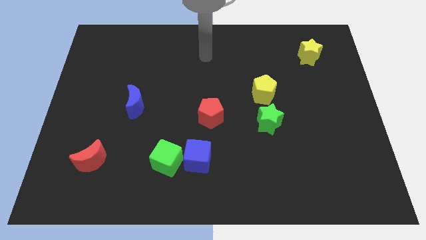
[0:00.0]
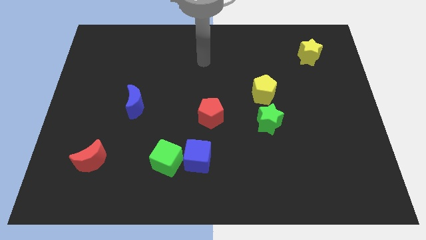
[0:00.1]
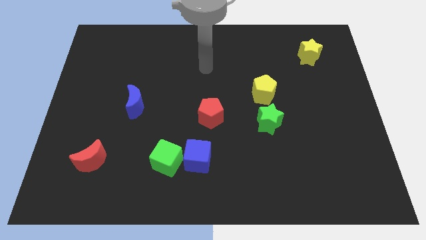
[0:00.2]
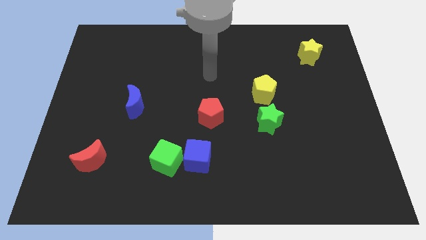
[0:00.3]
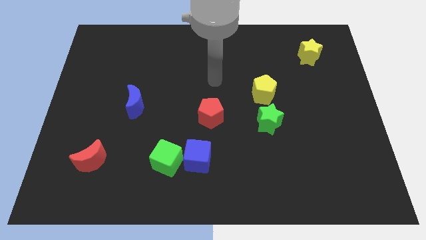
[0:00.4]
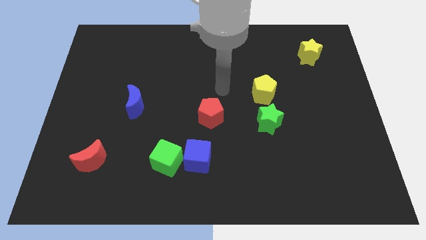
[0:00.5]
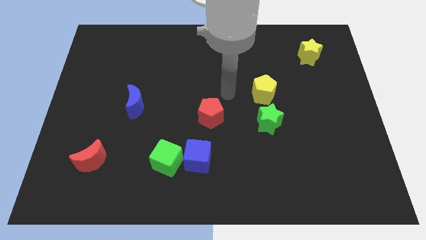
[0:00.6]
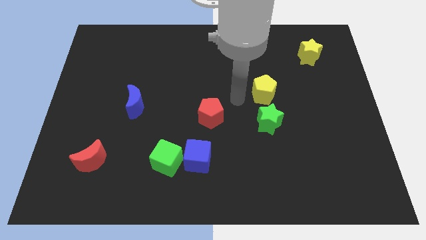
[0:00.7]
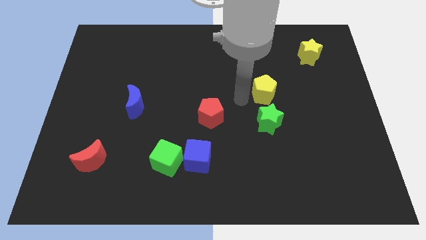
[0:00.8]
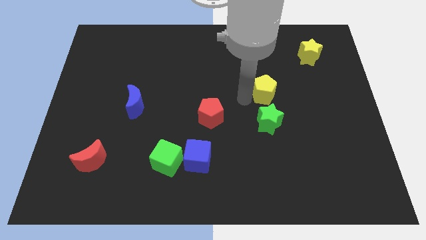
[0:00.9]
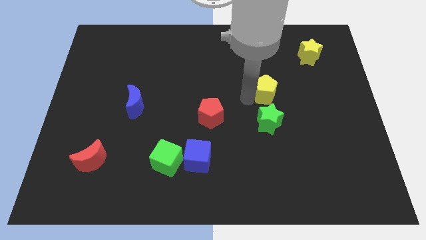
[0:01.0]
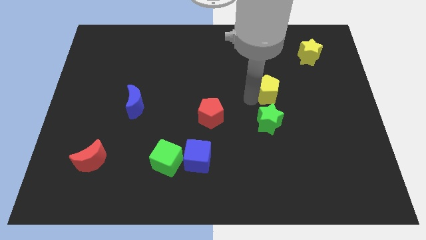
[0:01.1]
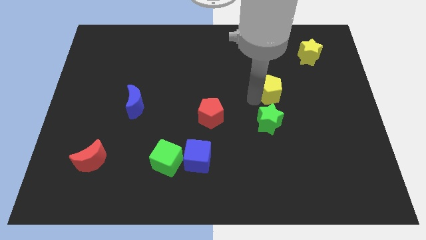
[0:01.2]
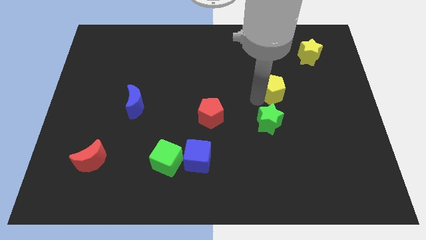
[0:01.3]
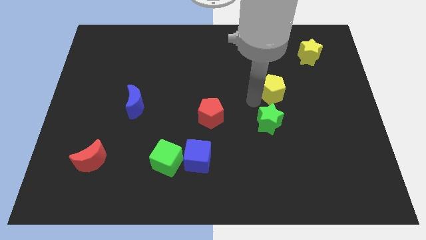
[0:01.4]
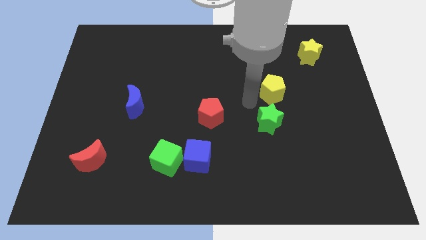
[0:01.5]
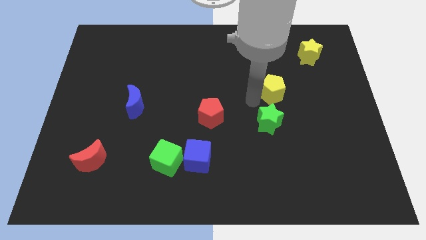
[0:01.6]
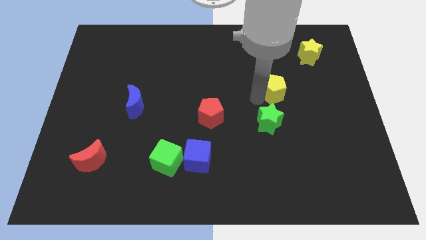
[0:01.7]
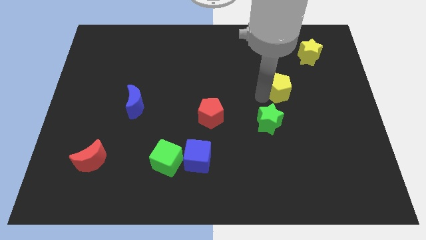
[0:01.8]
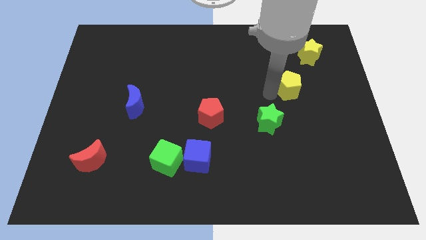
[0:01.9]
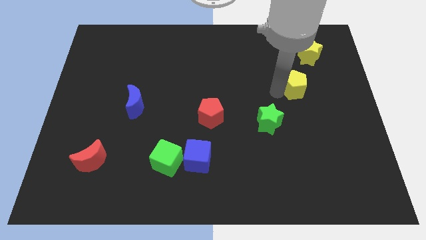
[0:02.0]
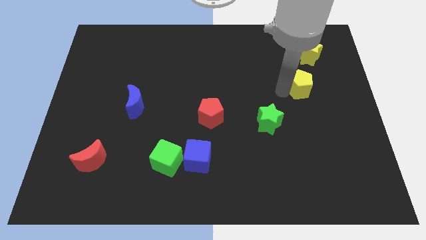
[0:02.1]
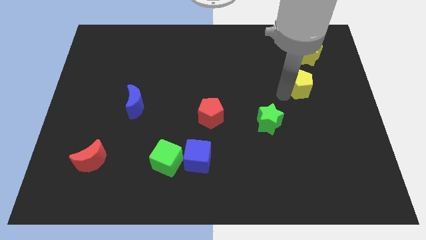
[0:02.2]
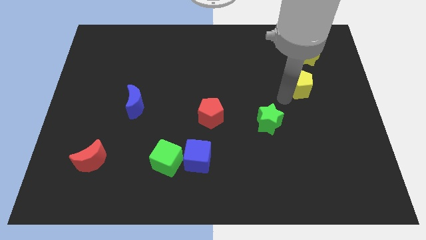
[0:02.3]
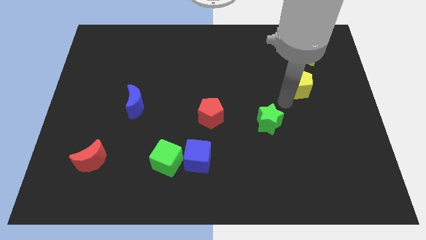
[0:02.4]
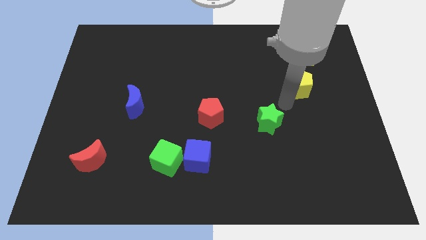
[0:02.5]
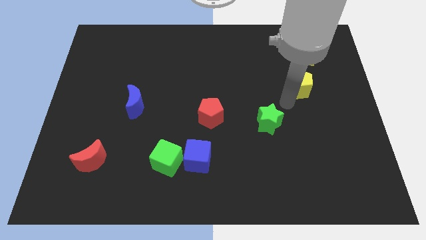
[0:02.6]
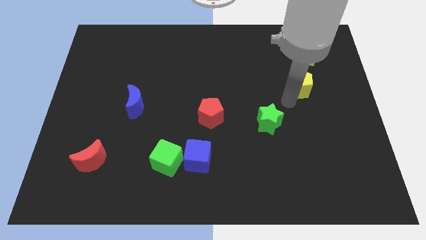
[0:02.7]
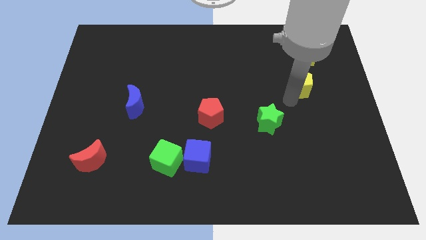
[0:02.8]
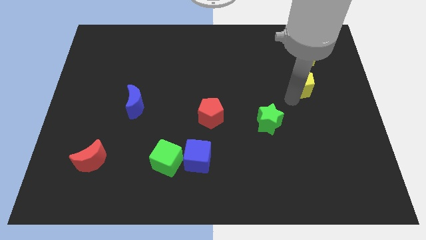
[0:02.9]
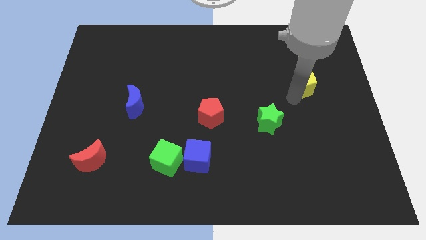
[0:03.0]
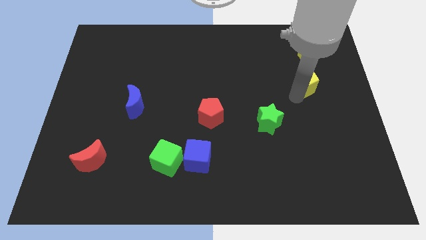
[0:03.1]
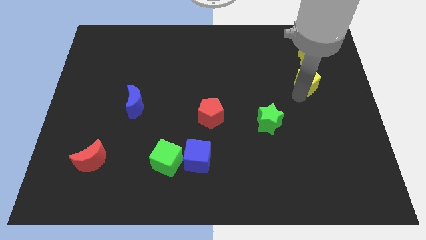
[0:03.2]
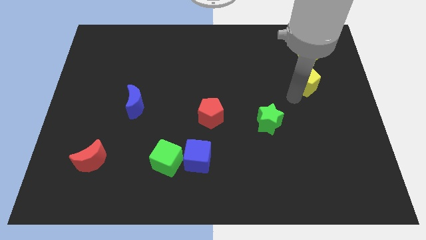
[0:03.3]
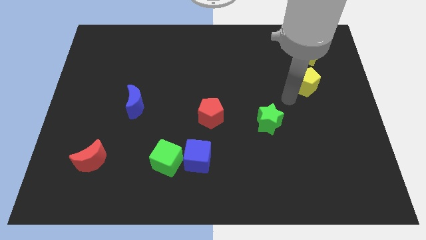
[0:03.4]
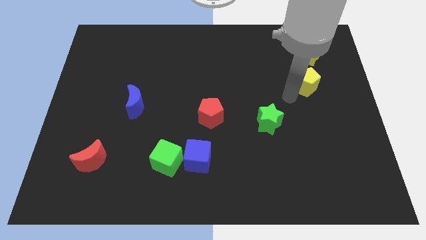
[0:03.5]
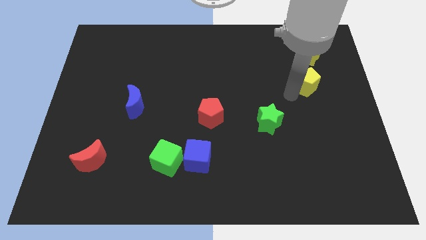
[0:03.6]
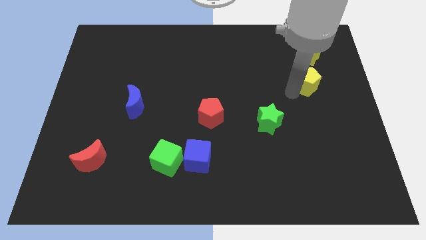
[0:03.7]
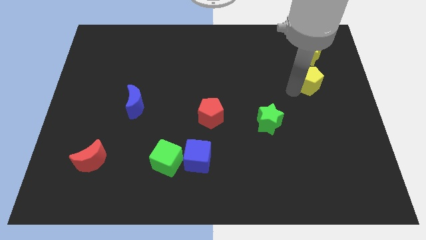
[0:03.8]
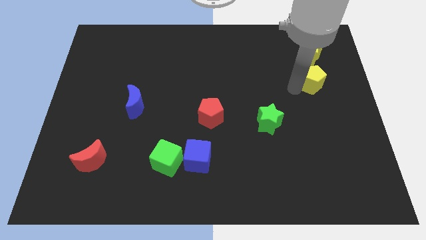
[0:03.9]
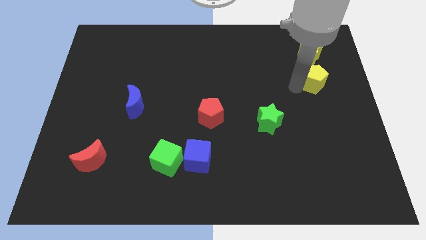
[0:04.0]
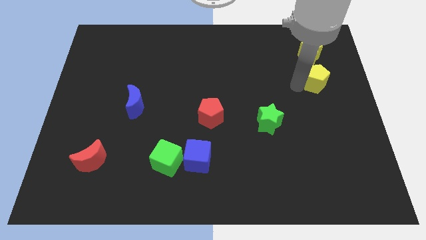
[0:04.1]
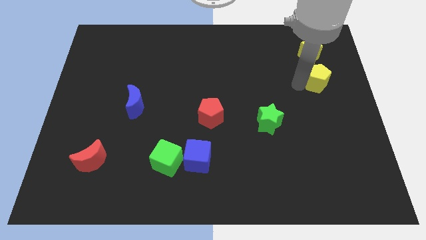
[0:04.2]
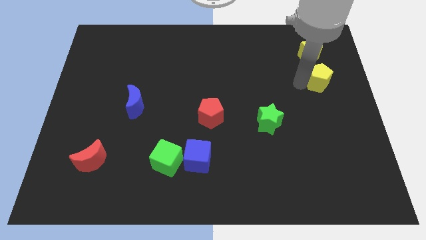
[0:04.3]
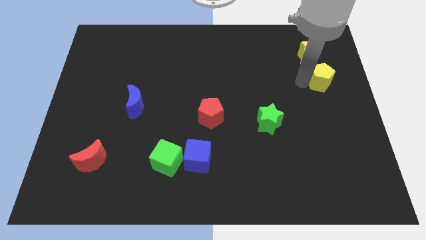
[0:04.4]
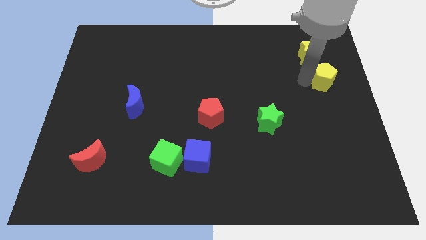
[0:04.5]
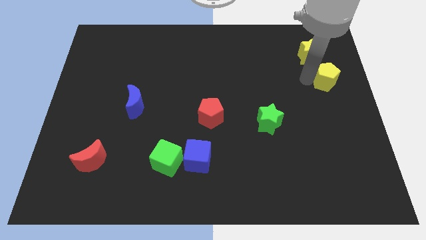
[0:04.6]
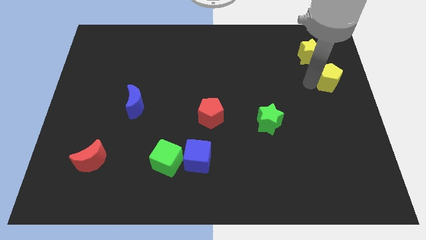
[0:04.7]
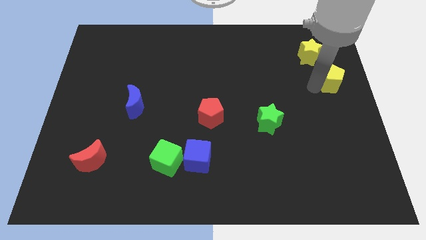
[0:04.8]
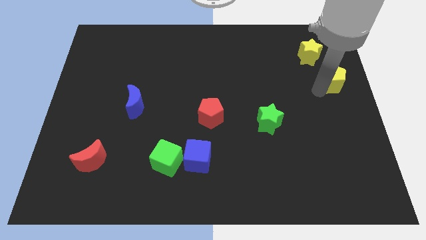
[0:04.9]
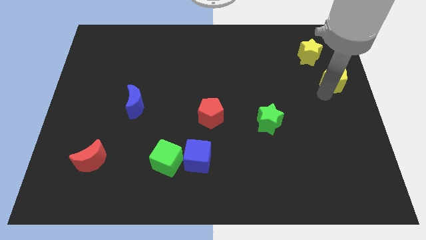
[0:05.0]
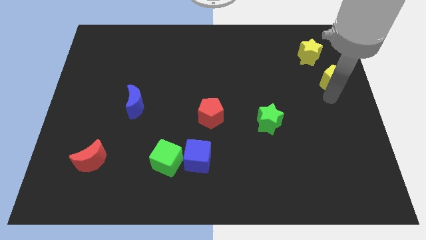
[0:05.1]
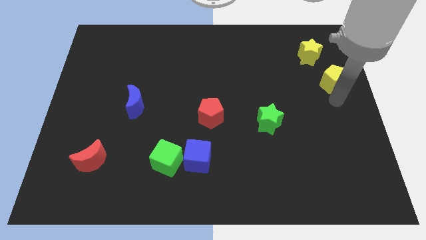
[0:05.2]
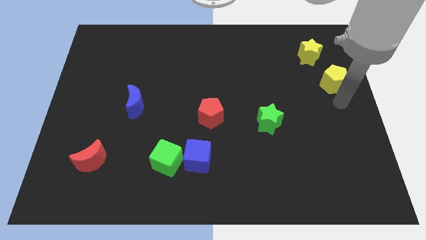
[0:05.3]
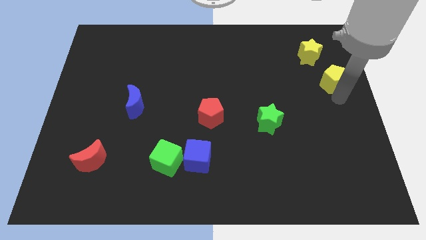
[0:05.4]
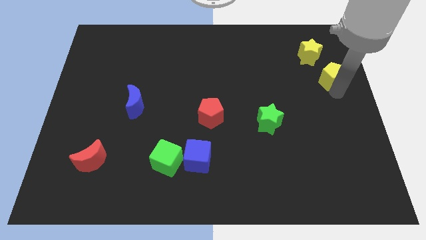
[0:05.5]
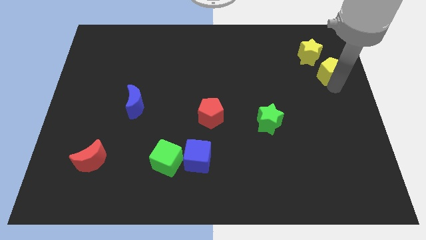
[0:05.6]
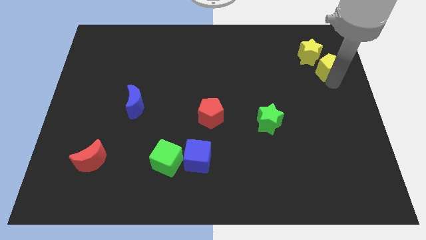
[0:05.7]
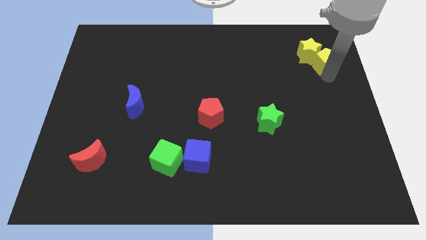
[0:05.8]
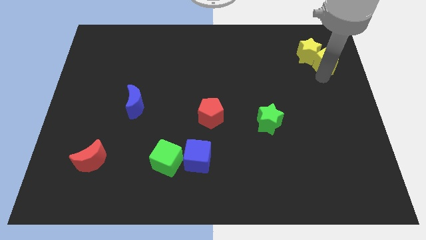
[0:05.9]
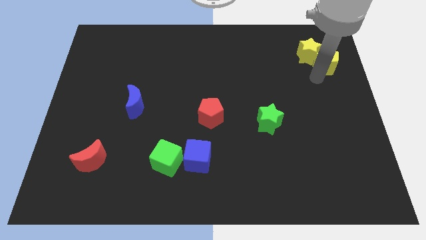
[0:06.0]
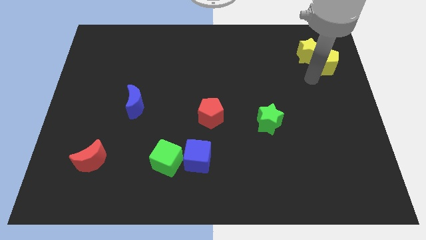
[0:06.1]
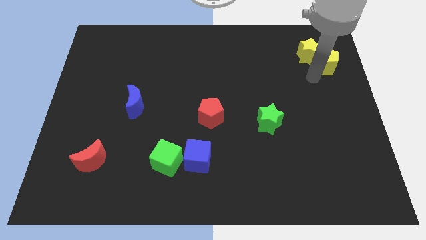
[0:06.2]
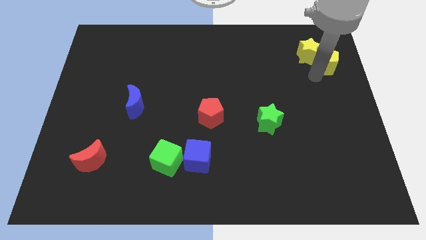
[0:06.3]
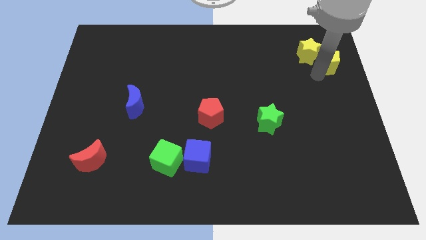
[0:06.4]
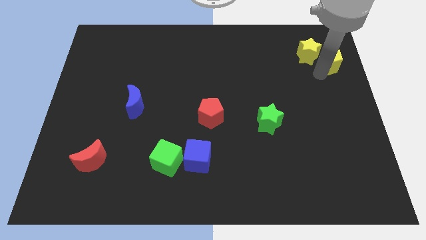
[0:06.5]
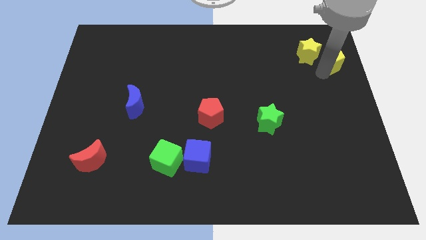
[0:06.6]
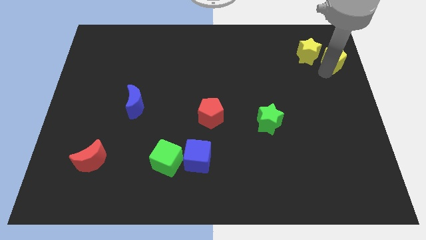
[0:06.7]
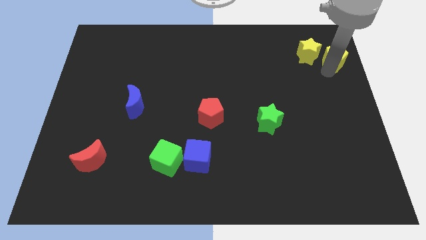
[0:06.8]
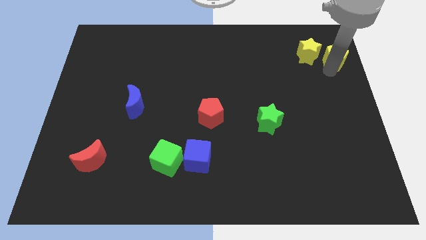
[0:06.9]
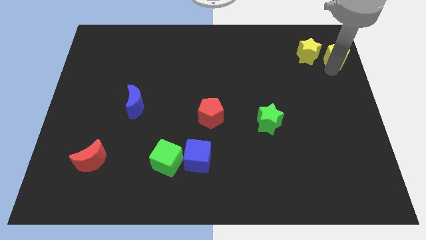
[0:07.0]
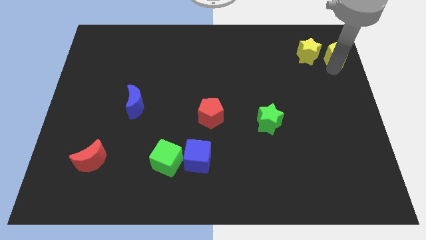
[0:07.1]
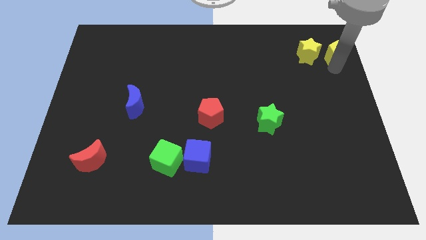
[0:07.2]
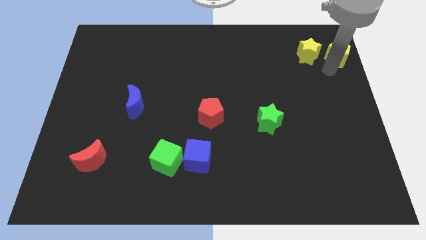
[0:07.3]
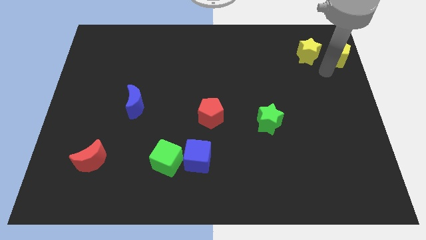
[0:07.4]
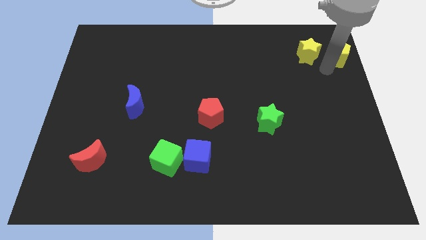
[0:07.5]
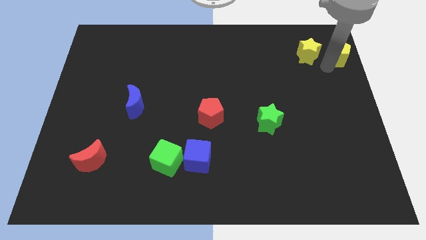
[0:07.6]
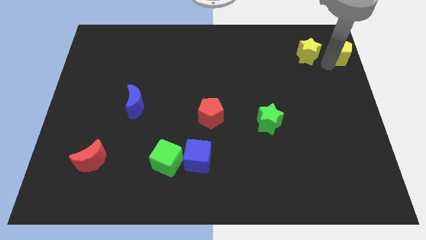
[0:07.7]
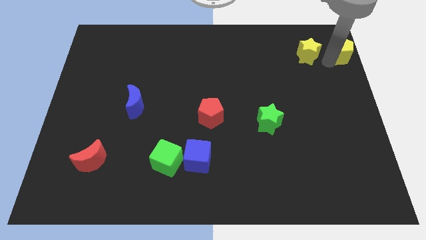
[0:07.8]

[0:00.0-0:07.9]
slide the yellow pentagon to the top right
